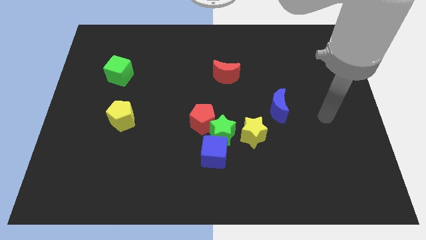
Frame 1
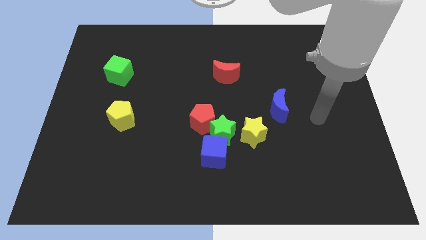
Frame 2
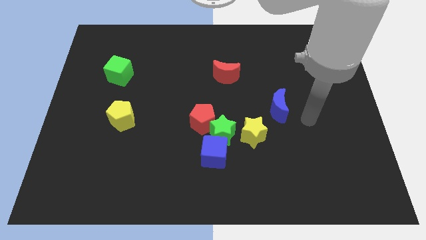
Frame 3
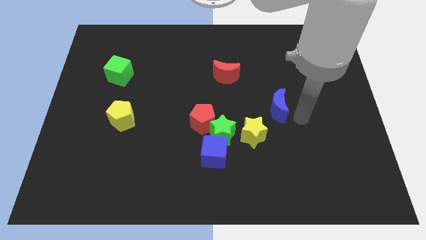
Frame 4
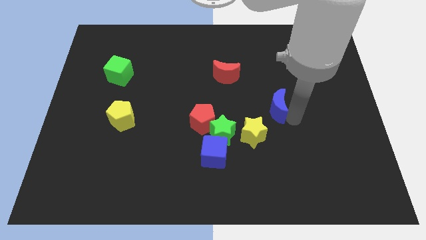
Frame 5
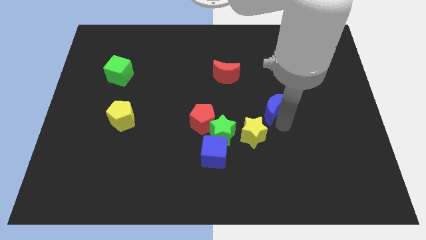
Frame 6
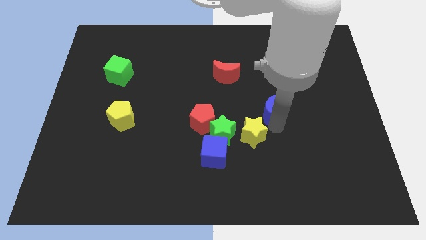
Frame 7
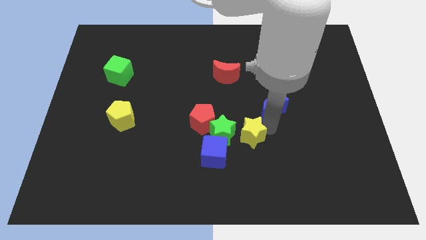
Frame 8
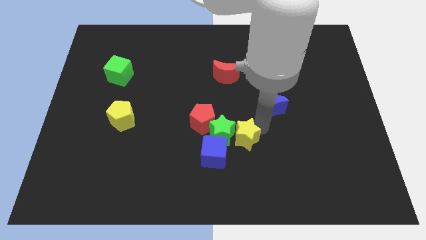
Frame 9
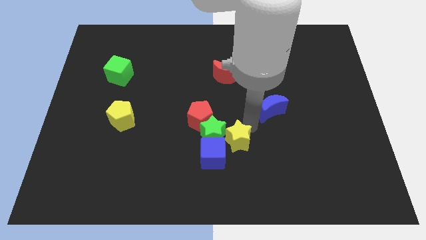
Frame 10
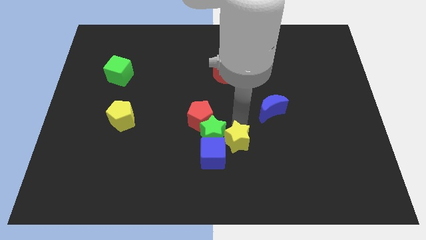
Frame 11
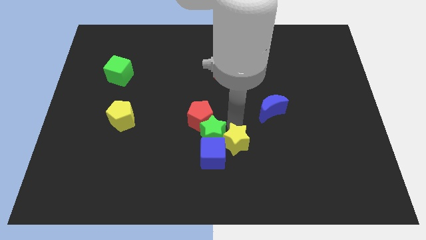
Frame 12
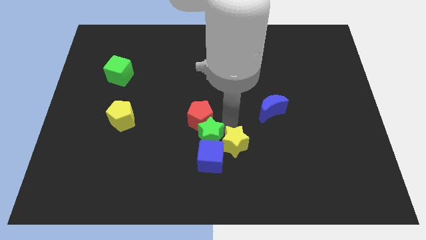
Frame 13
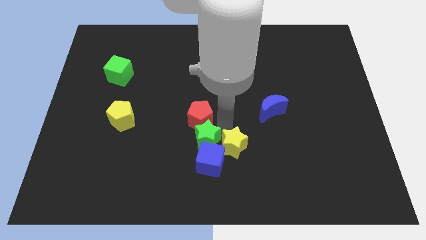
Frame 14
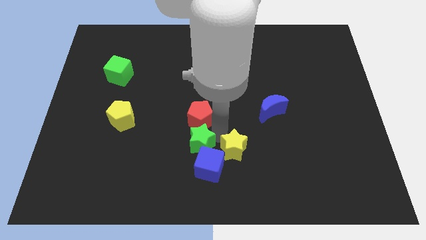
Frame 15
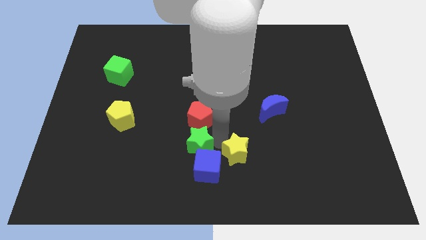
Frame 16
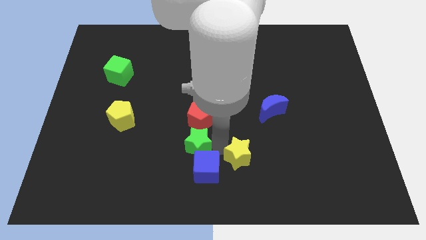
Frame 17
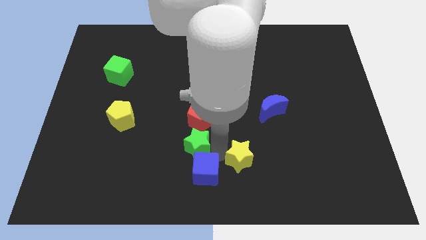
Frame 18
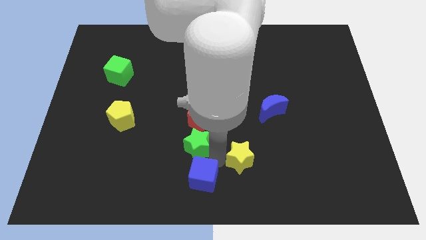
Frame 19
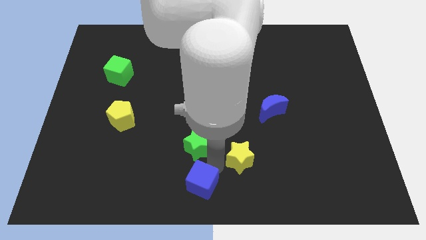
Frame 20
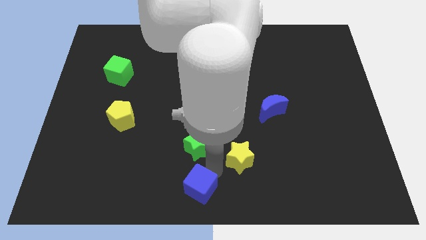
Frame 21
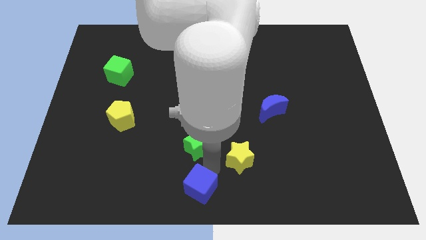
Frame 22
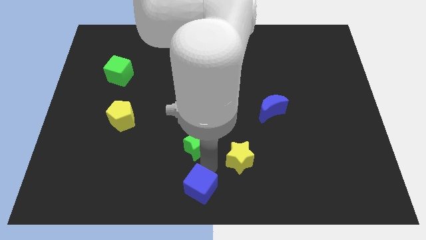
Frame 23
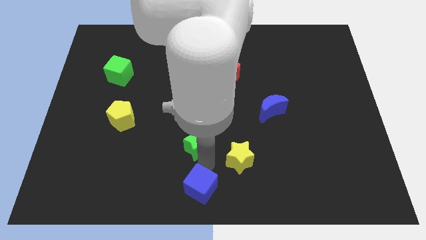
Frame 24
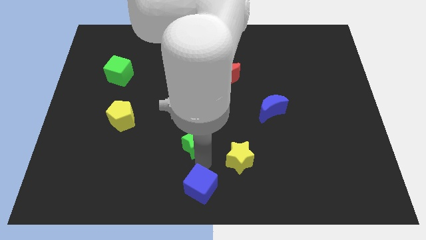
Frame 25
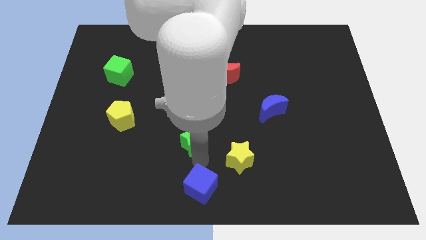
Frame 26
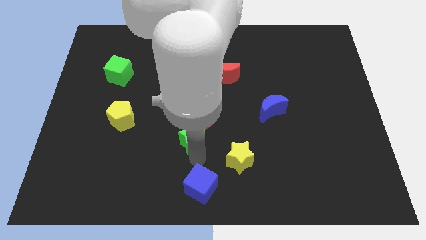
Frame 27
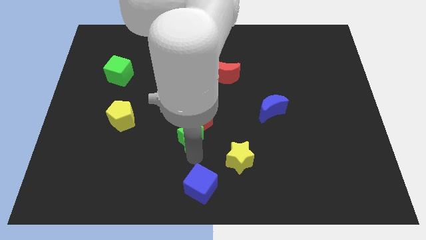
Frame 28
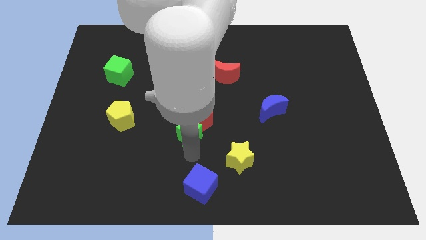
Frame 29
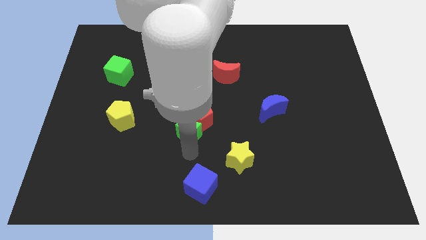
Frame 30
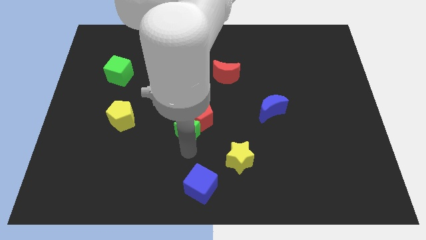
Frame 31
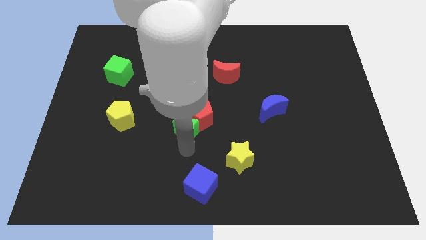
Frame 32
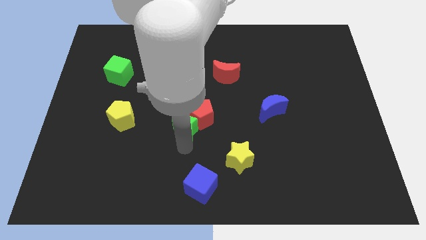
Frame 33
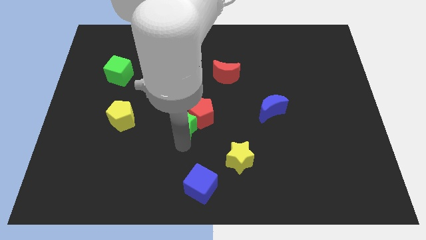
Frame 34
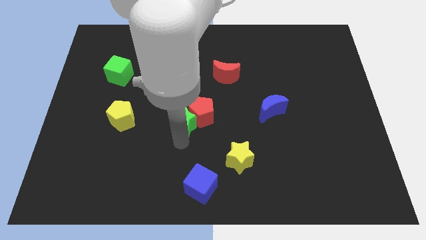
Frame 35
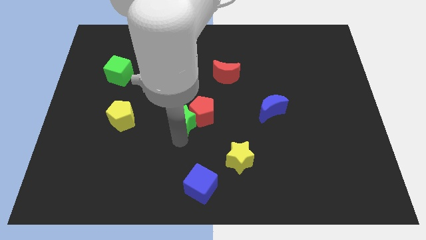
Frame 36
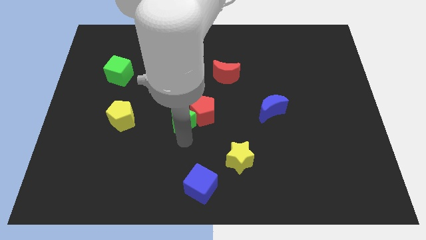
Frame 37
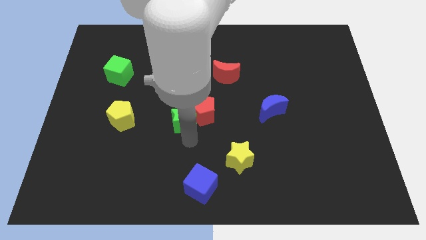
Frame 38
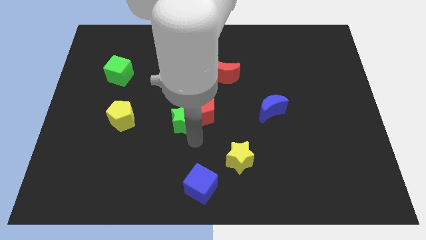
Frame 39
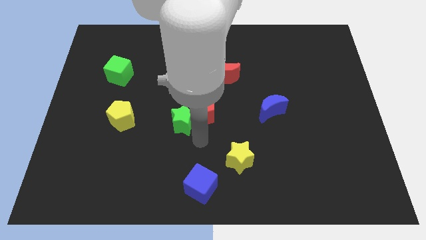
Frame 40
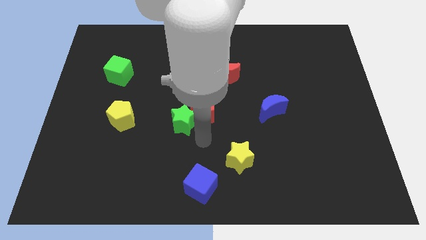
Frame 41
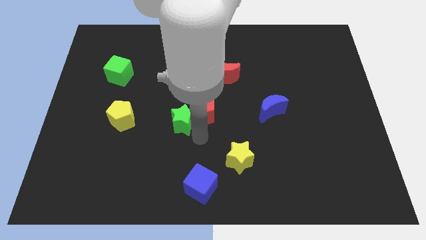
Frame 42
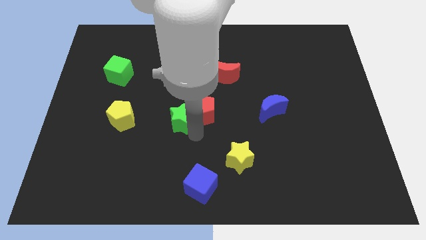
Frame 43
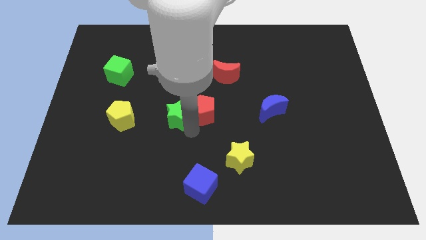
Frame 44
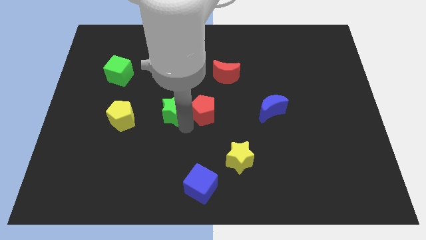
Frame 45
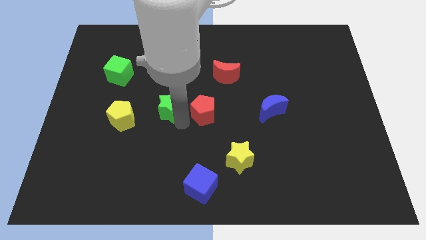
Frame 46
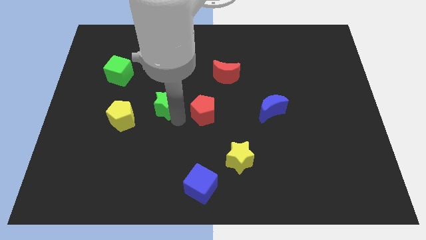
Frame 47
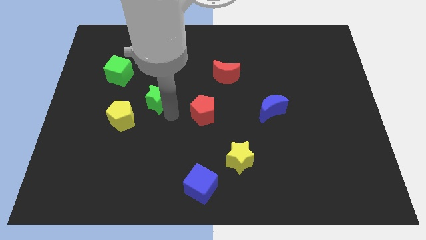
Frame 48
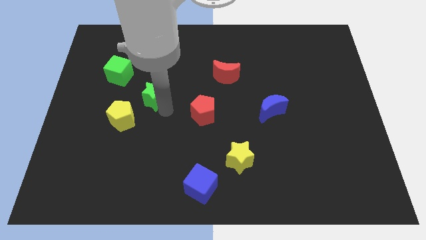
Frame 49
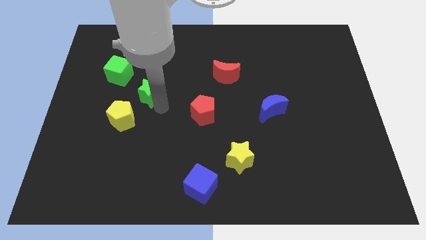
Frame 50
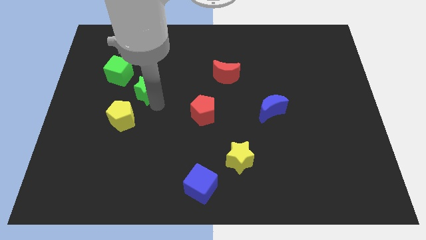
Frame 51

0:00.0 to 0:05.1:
move the green star upwards and to the left diagonally

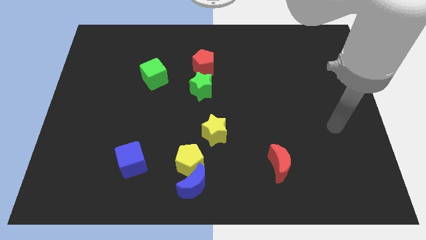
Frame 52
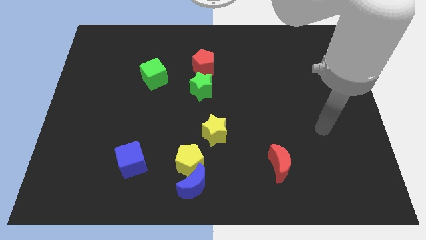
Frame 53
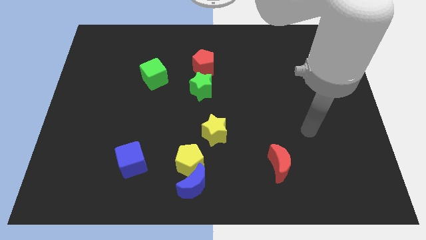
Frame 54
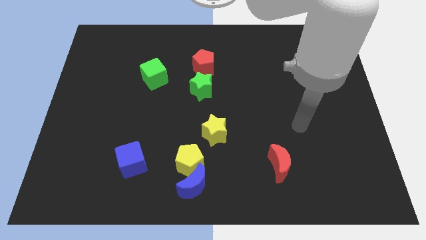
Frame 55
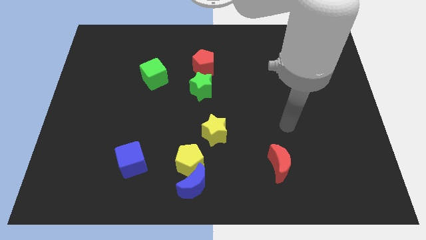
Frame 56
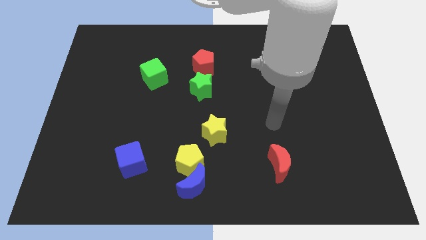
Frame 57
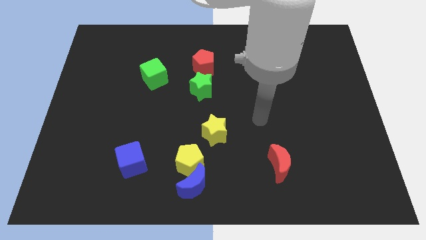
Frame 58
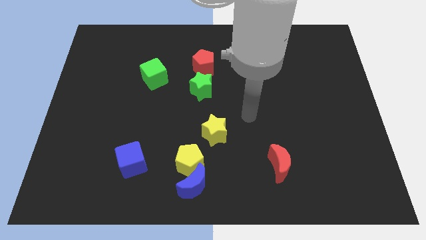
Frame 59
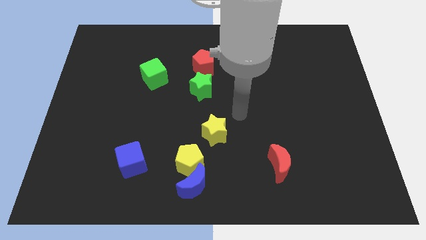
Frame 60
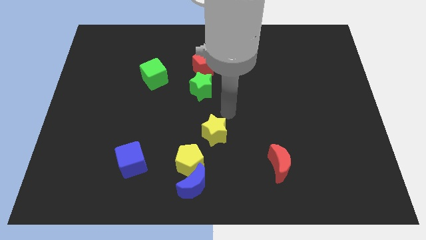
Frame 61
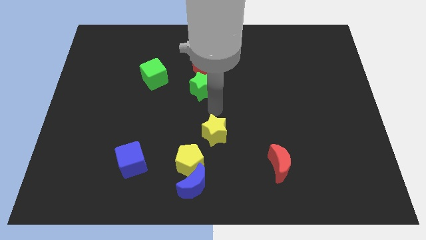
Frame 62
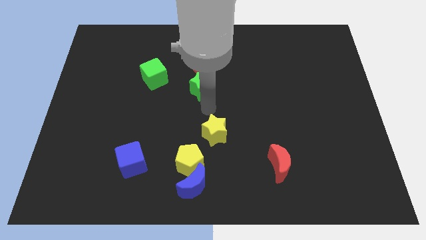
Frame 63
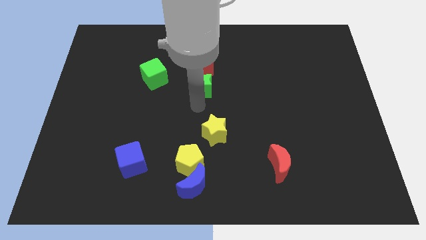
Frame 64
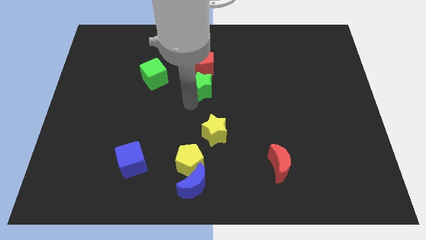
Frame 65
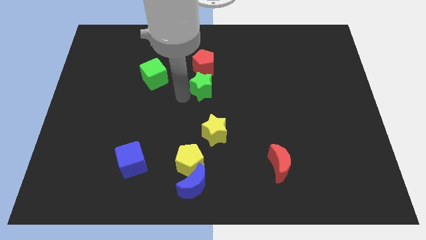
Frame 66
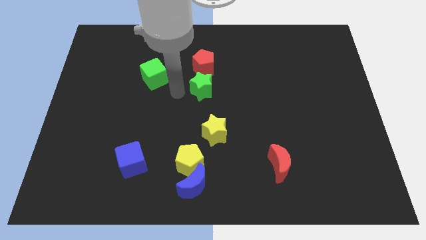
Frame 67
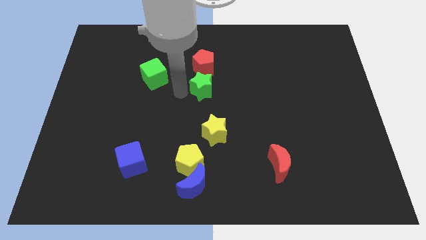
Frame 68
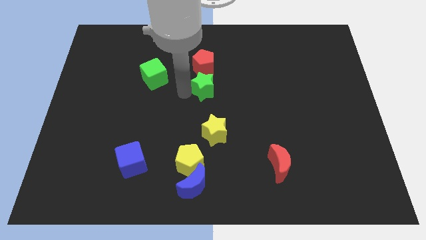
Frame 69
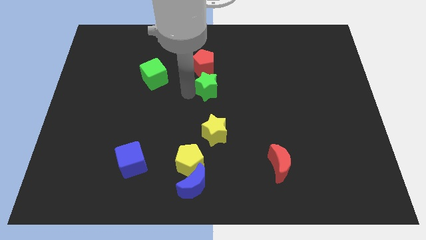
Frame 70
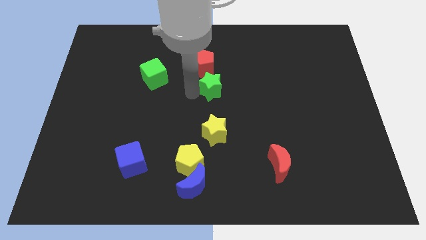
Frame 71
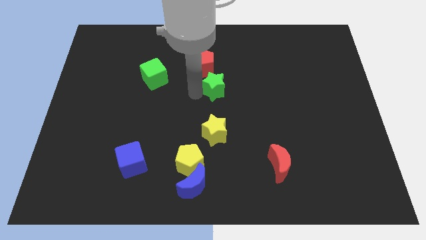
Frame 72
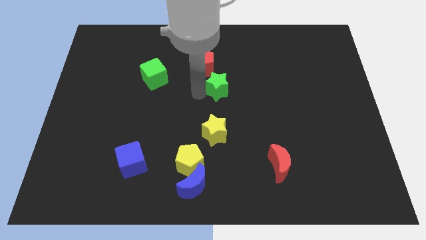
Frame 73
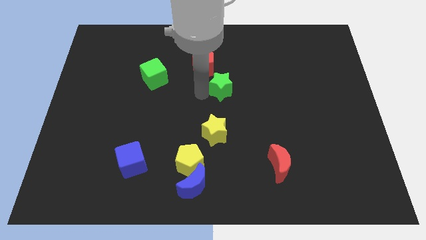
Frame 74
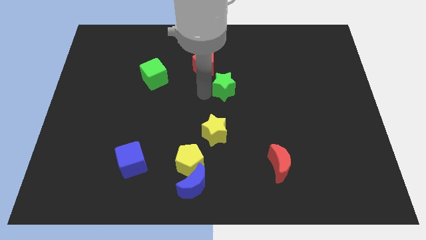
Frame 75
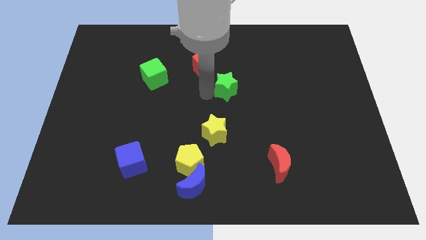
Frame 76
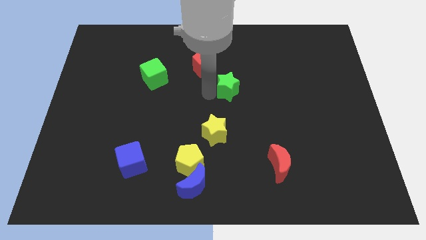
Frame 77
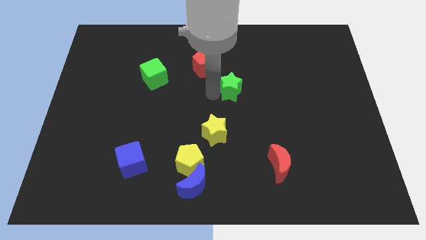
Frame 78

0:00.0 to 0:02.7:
push the green star right a little bit
